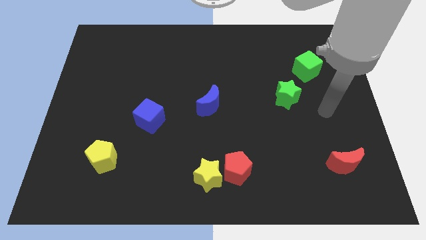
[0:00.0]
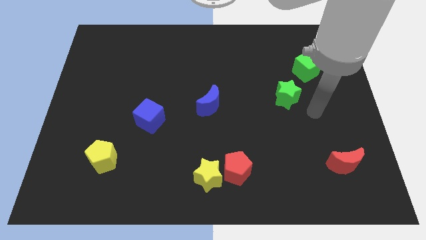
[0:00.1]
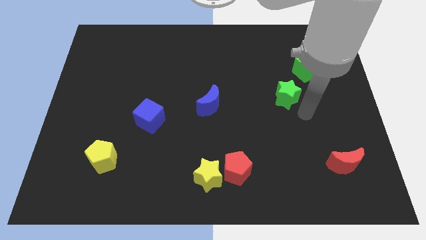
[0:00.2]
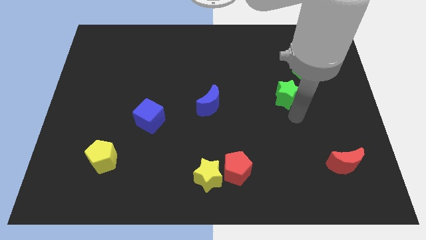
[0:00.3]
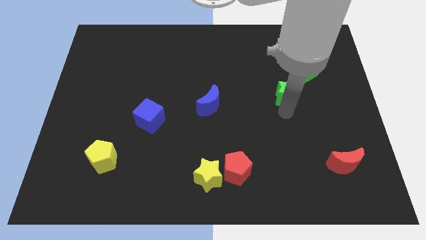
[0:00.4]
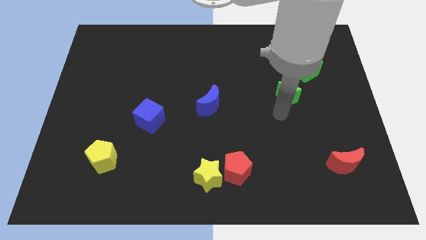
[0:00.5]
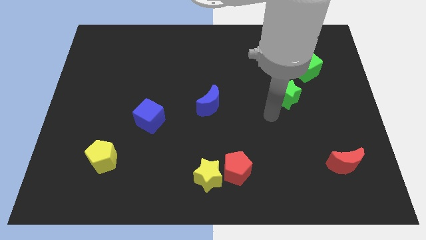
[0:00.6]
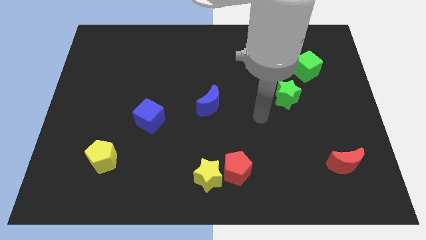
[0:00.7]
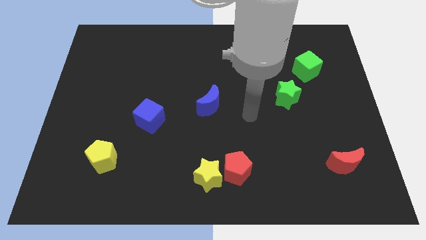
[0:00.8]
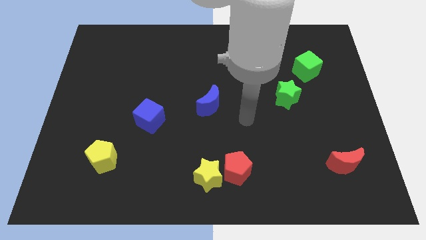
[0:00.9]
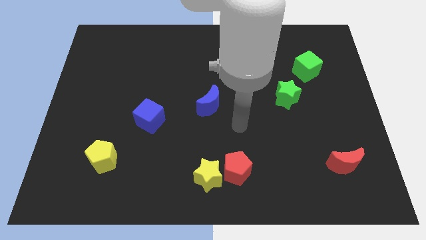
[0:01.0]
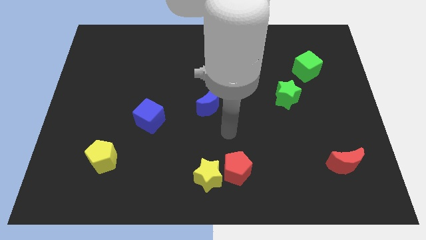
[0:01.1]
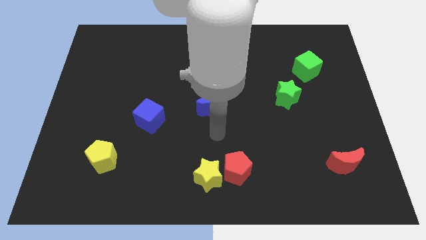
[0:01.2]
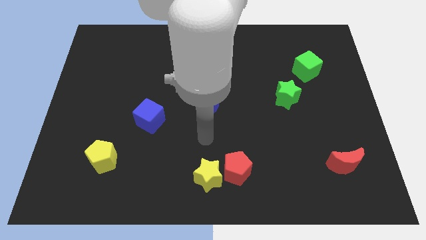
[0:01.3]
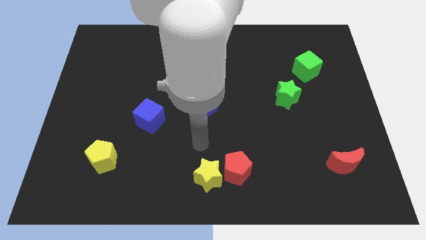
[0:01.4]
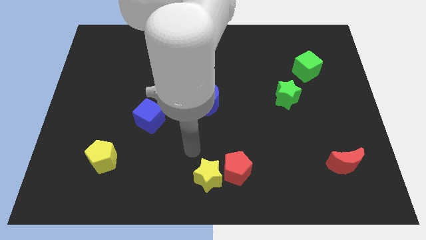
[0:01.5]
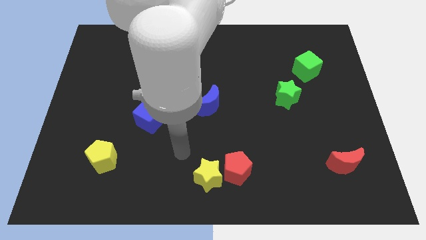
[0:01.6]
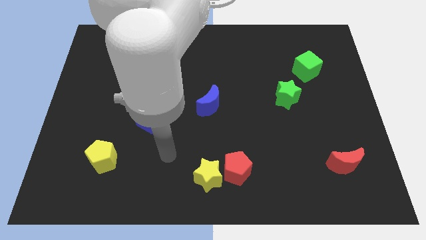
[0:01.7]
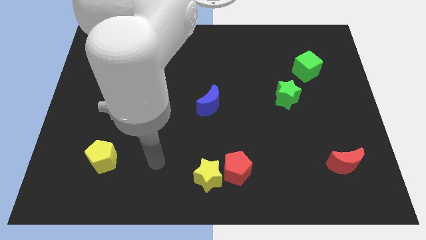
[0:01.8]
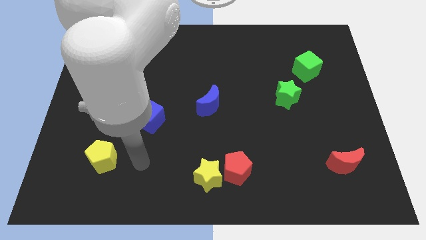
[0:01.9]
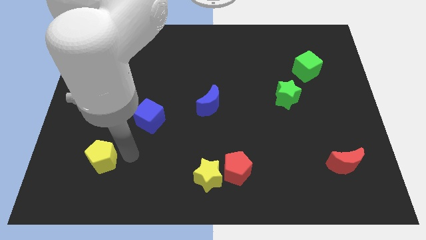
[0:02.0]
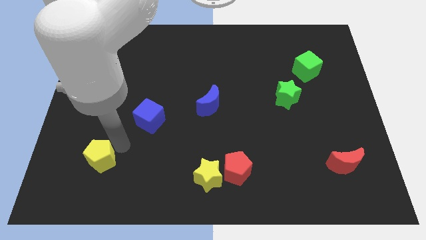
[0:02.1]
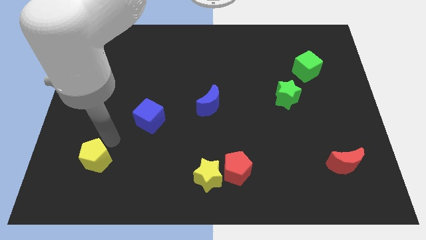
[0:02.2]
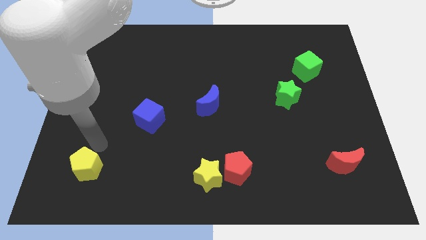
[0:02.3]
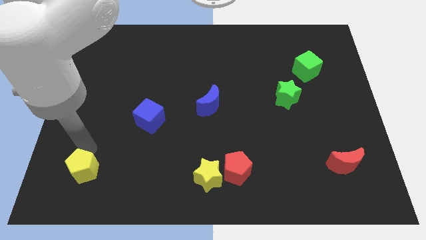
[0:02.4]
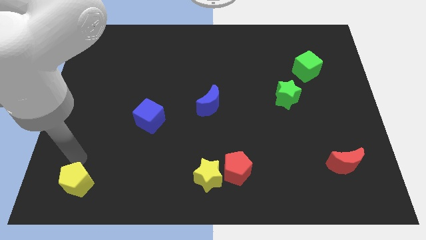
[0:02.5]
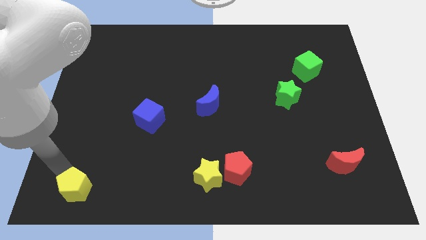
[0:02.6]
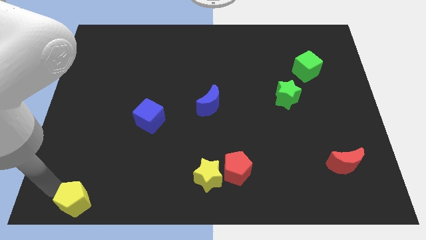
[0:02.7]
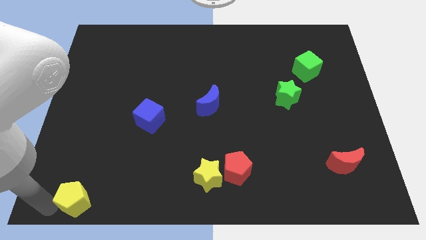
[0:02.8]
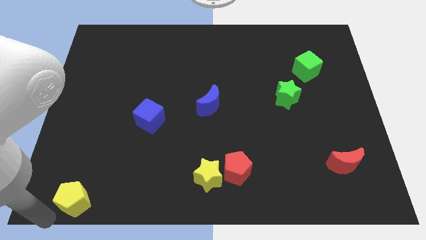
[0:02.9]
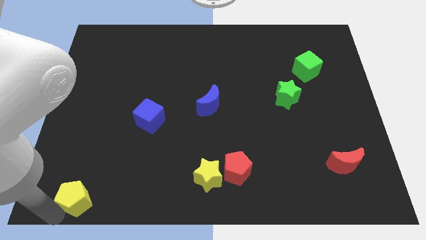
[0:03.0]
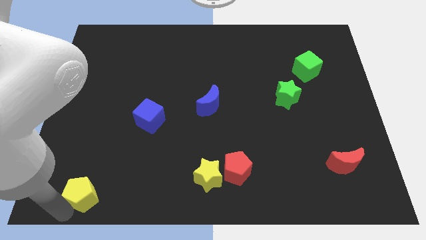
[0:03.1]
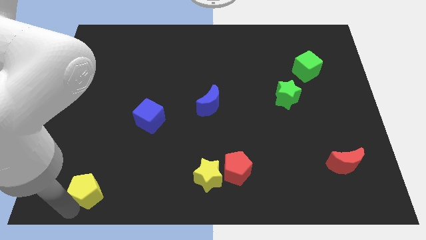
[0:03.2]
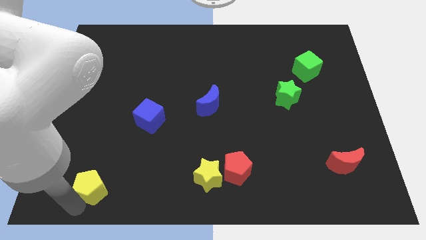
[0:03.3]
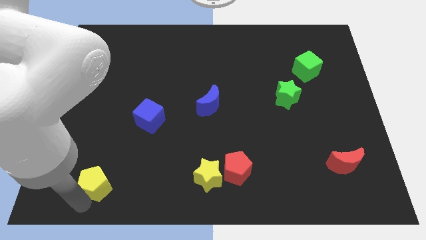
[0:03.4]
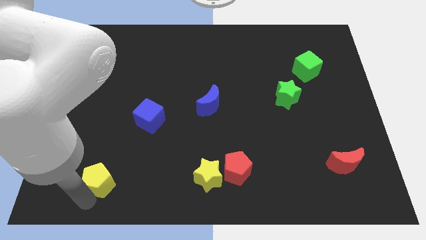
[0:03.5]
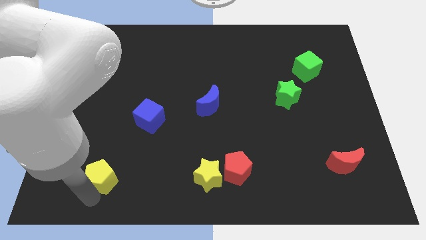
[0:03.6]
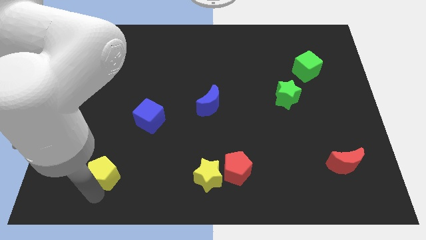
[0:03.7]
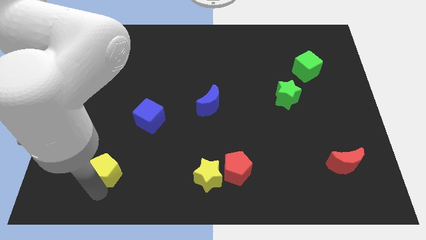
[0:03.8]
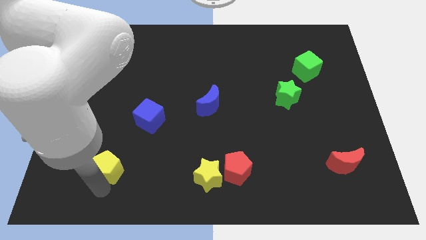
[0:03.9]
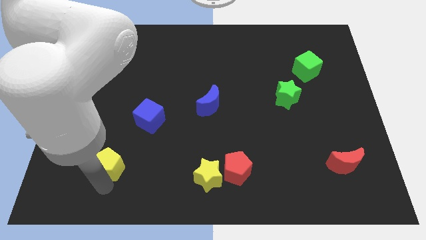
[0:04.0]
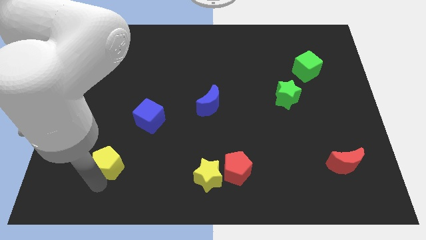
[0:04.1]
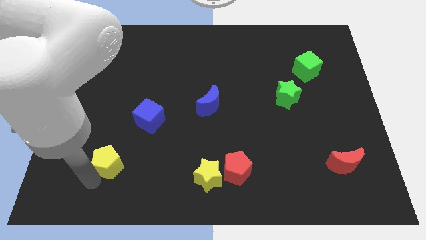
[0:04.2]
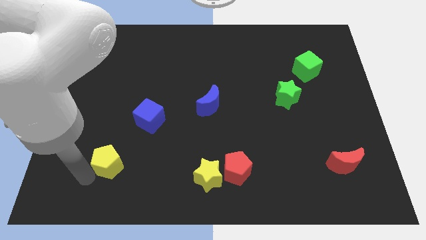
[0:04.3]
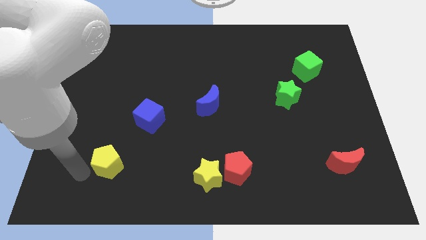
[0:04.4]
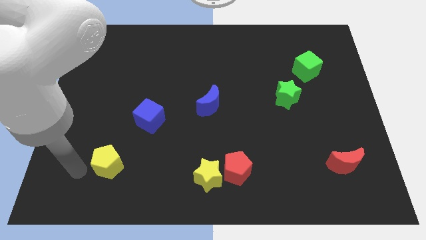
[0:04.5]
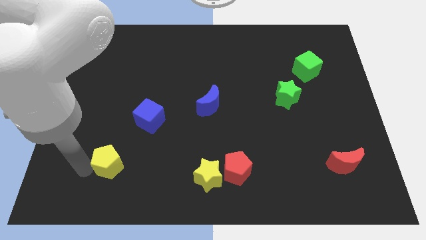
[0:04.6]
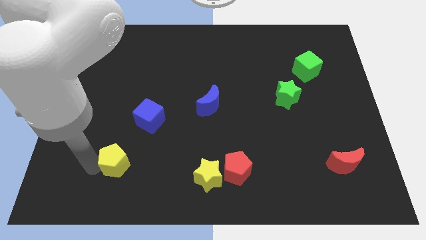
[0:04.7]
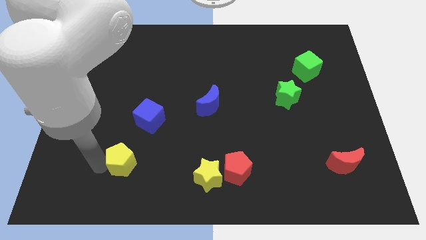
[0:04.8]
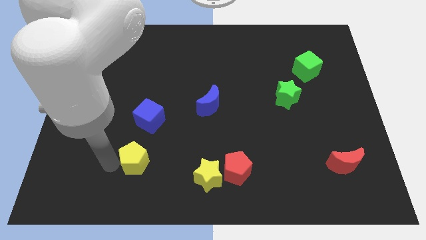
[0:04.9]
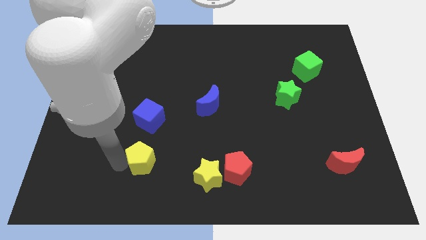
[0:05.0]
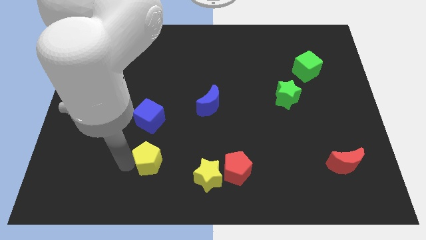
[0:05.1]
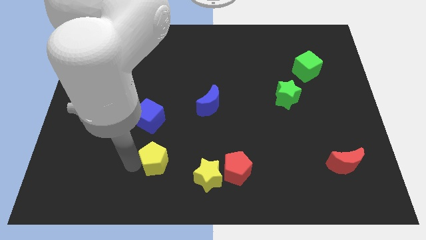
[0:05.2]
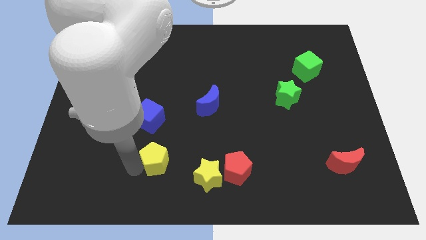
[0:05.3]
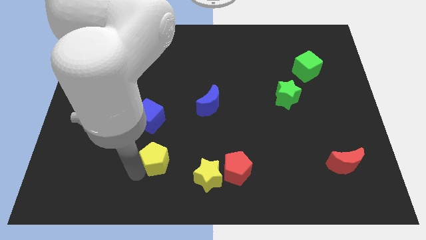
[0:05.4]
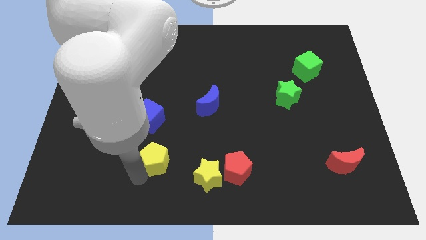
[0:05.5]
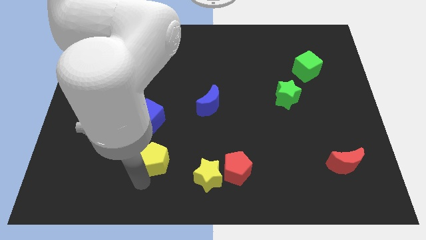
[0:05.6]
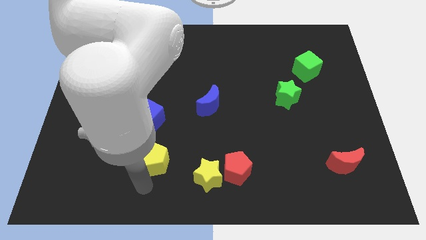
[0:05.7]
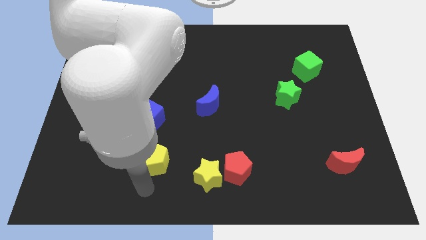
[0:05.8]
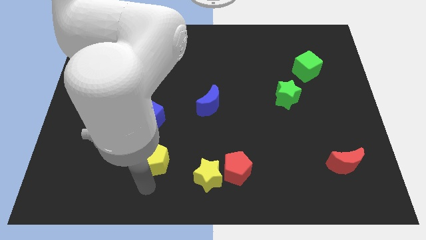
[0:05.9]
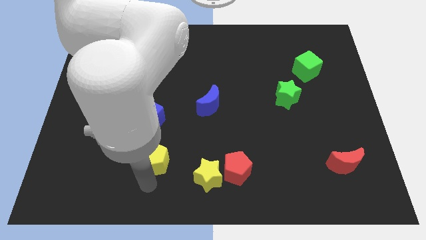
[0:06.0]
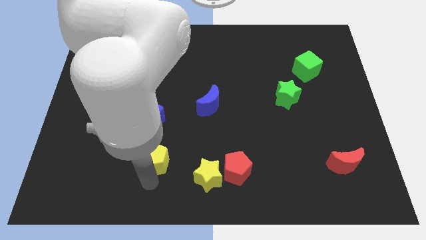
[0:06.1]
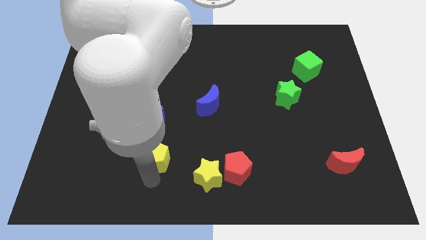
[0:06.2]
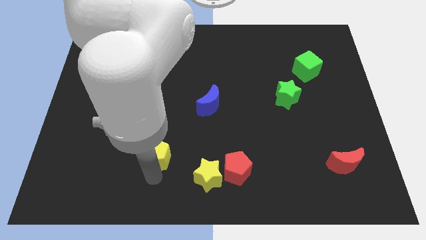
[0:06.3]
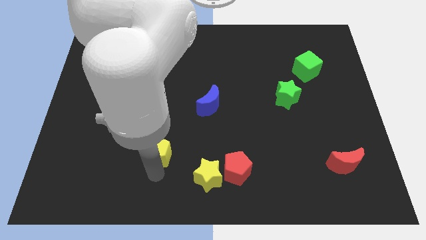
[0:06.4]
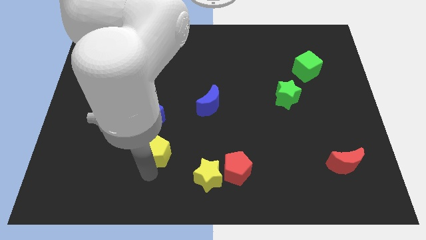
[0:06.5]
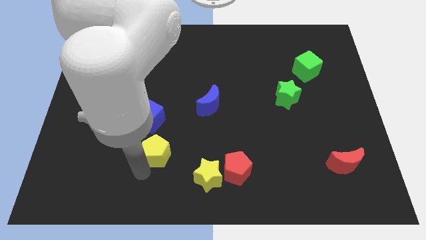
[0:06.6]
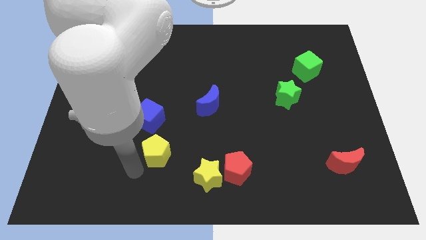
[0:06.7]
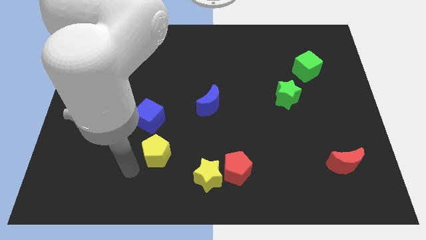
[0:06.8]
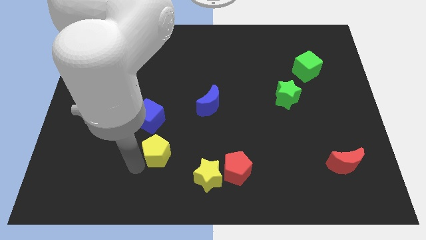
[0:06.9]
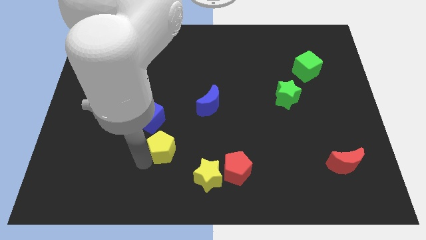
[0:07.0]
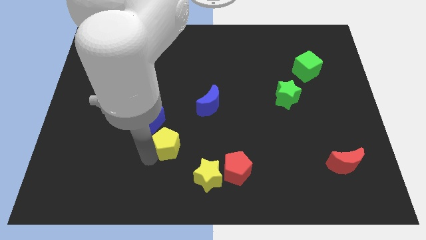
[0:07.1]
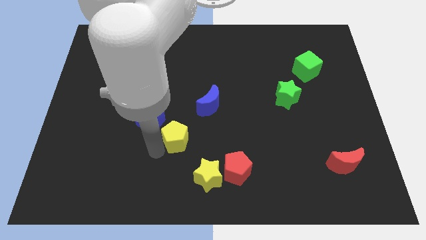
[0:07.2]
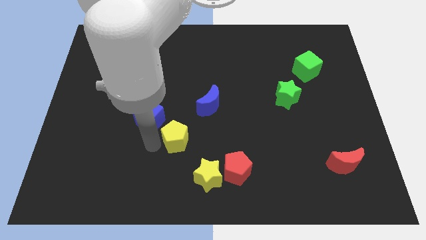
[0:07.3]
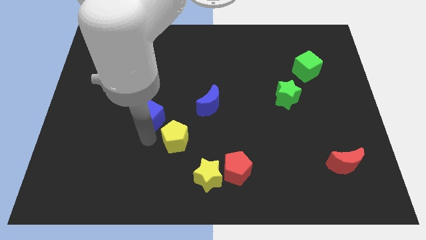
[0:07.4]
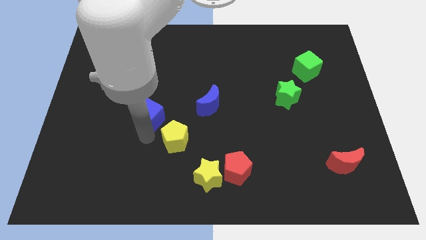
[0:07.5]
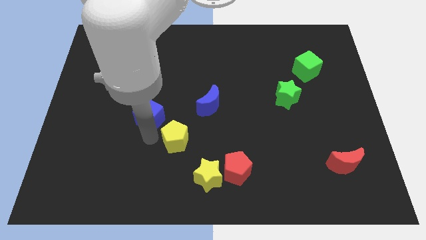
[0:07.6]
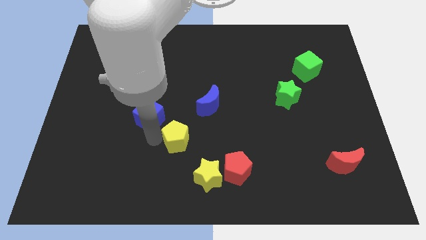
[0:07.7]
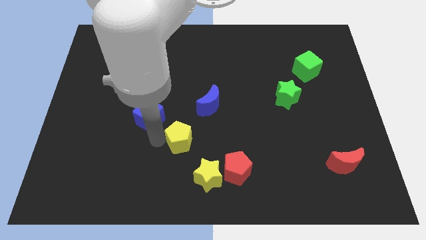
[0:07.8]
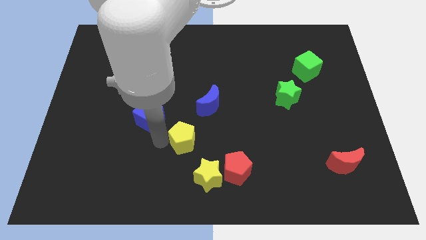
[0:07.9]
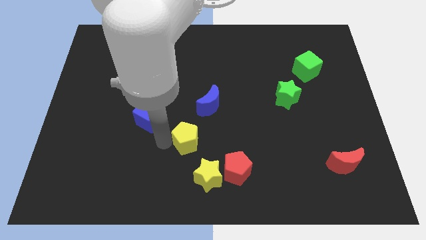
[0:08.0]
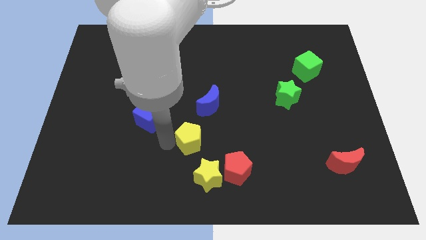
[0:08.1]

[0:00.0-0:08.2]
push the yellow pentagon below the blue moon
